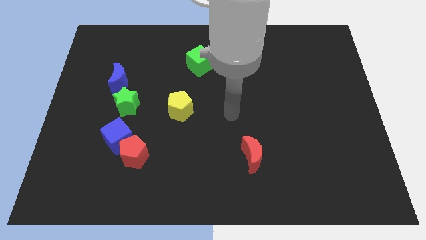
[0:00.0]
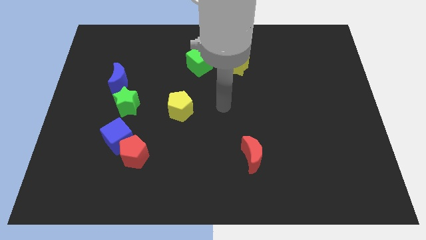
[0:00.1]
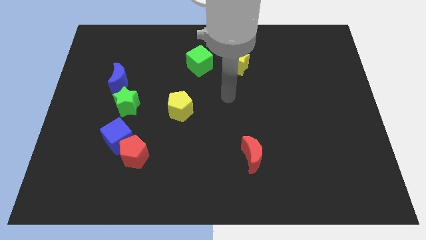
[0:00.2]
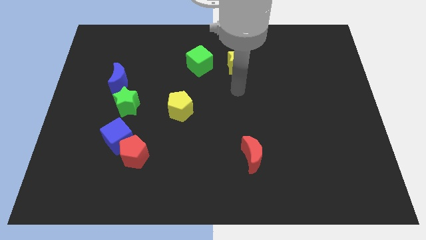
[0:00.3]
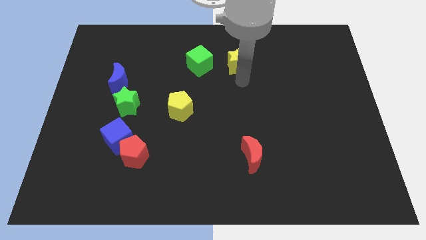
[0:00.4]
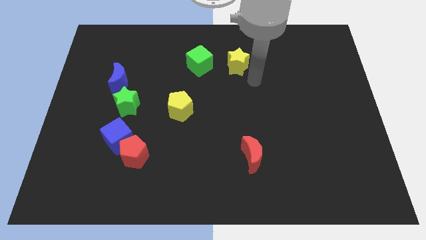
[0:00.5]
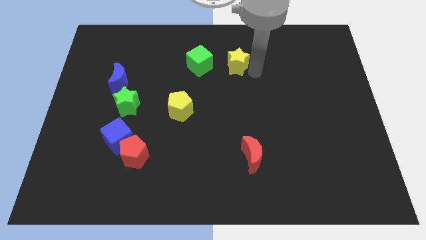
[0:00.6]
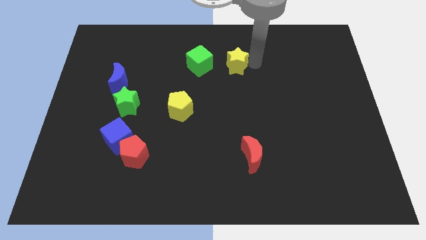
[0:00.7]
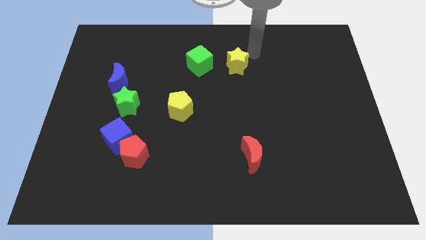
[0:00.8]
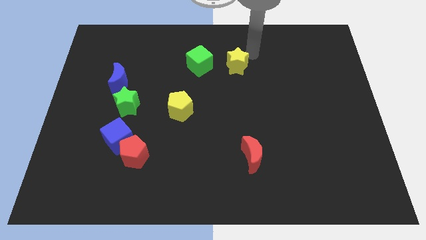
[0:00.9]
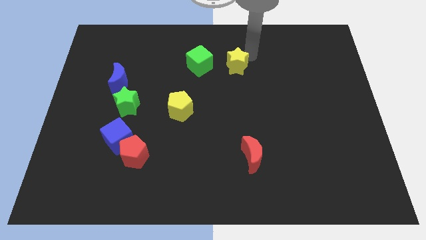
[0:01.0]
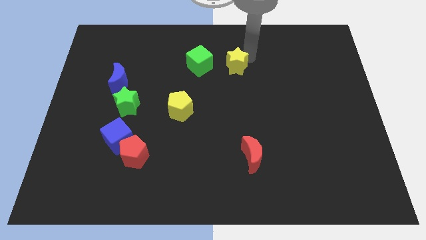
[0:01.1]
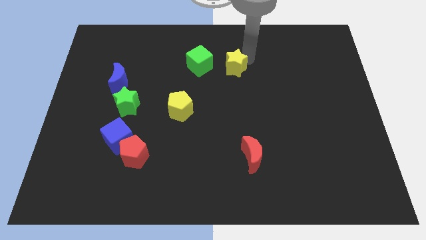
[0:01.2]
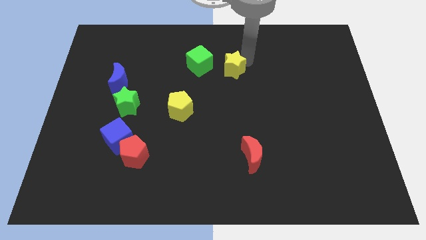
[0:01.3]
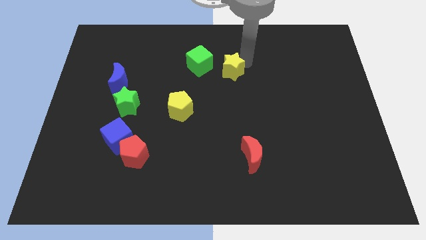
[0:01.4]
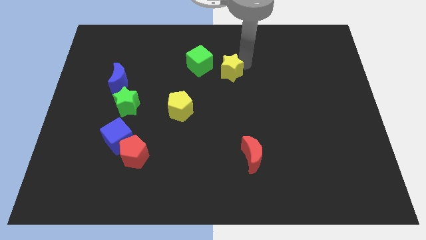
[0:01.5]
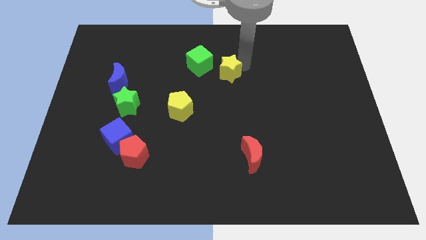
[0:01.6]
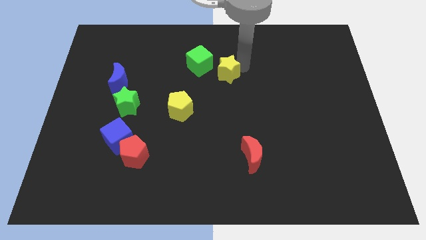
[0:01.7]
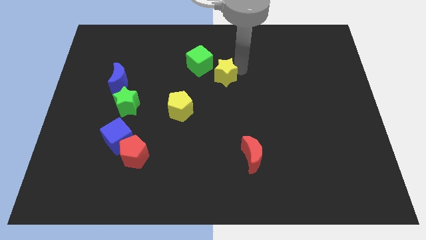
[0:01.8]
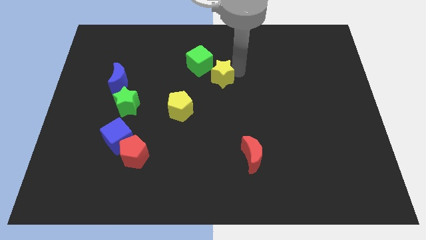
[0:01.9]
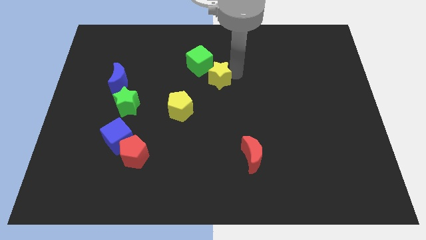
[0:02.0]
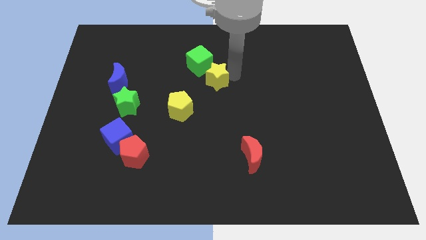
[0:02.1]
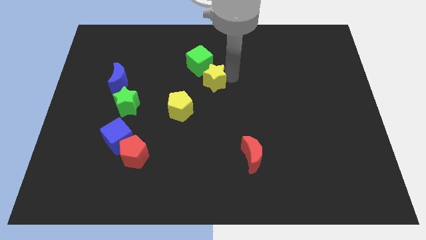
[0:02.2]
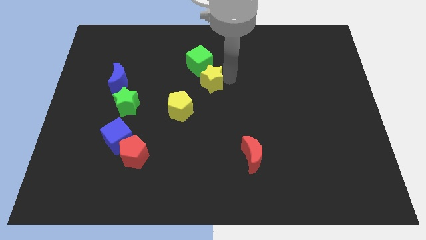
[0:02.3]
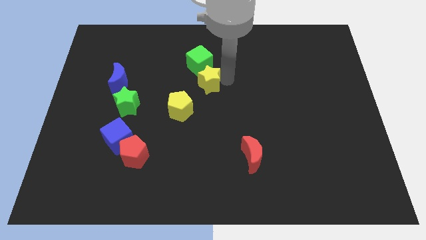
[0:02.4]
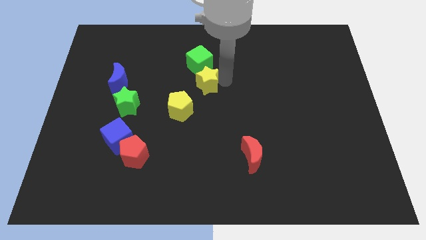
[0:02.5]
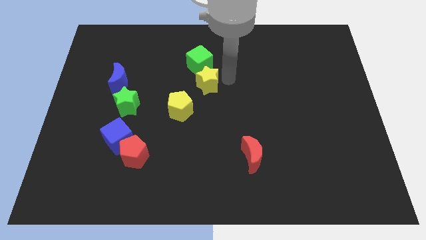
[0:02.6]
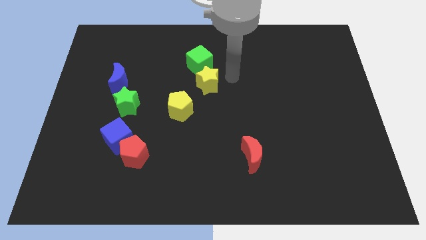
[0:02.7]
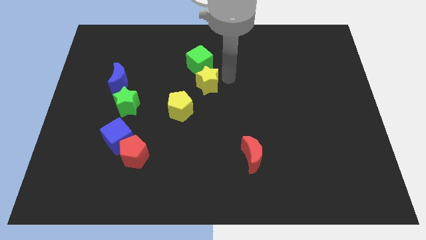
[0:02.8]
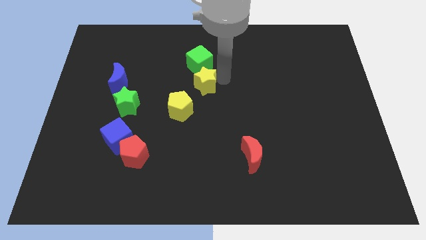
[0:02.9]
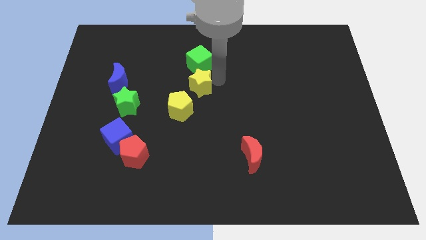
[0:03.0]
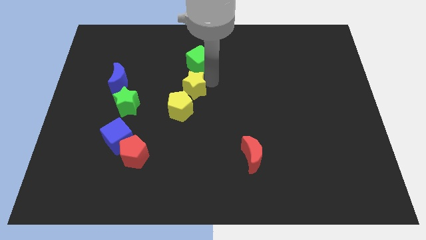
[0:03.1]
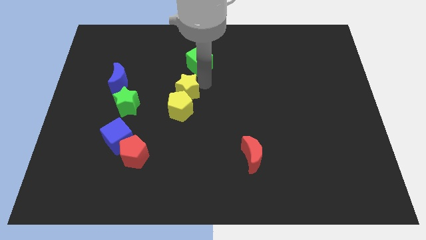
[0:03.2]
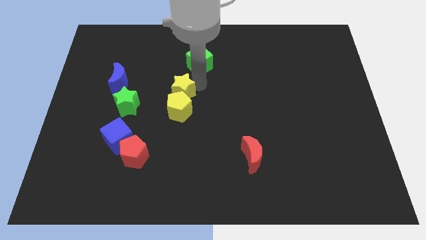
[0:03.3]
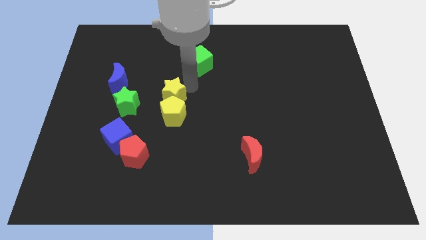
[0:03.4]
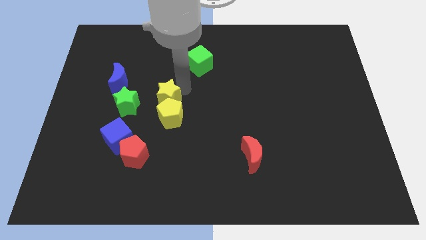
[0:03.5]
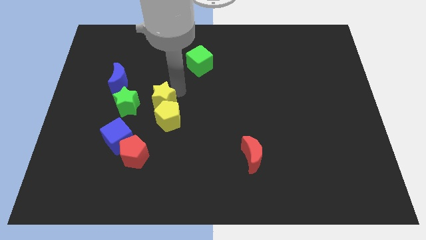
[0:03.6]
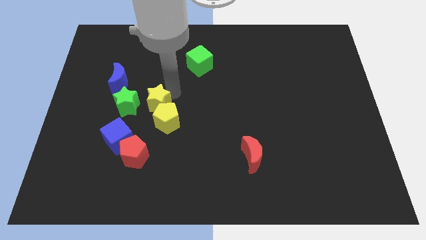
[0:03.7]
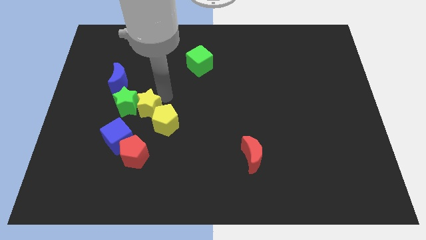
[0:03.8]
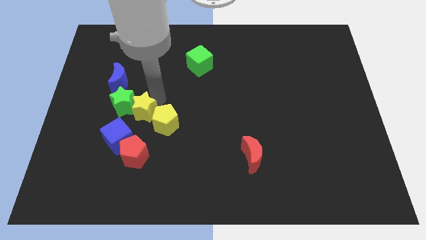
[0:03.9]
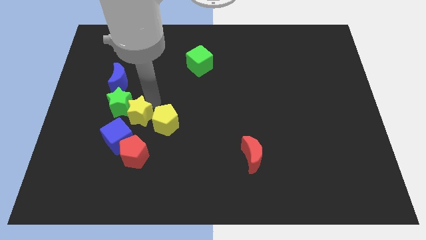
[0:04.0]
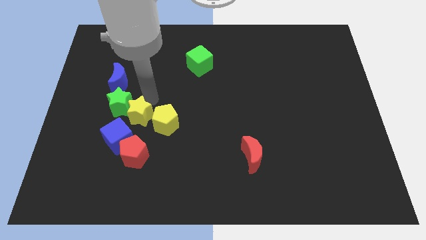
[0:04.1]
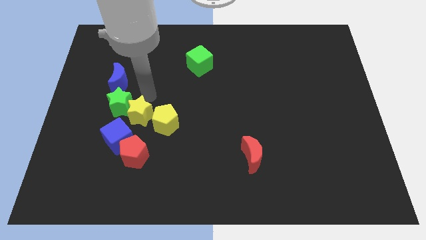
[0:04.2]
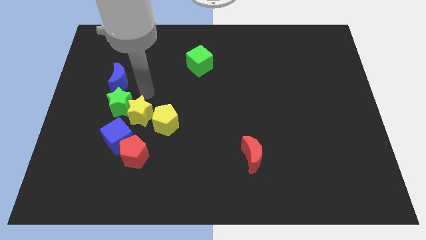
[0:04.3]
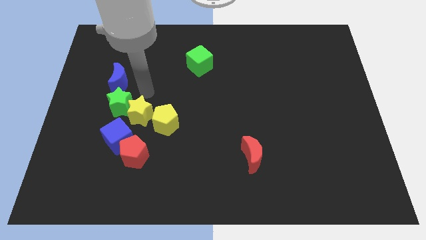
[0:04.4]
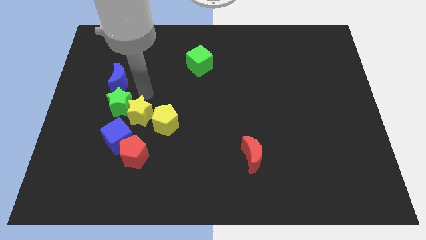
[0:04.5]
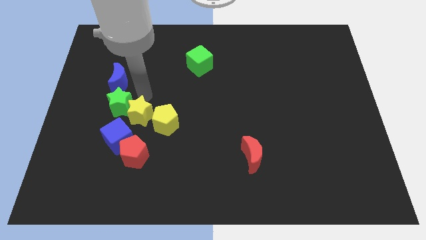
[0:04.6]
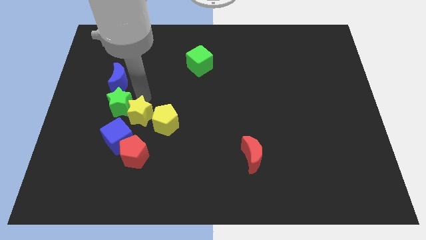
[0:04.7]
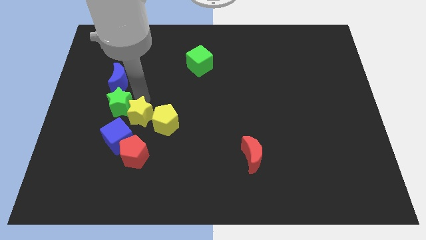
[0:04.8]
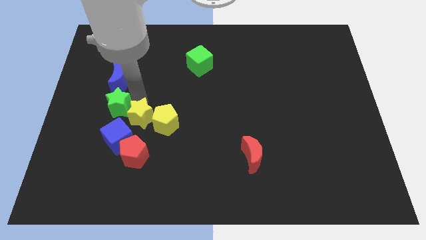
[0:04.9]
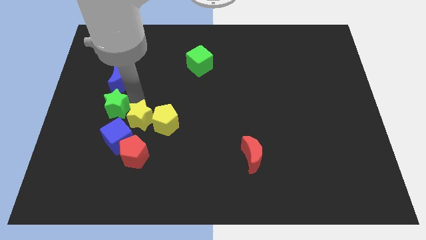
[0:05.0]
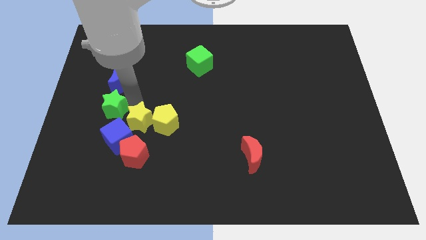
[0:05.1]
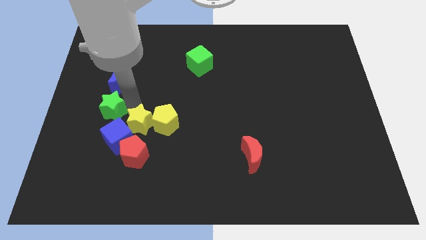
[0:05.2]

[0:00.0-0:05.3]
push the yellow star next to the blue cube

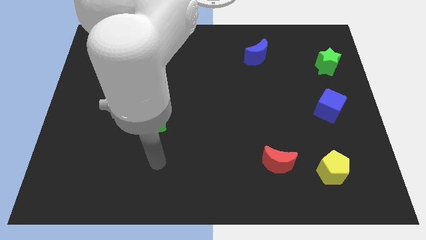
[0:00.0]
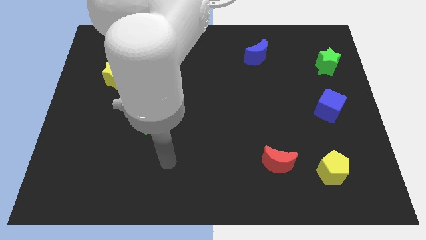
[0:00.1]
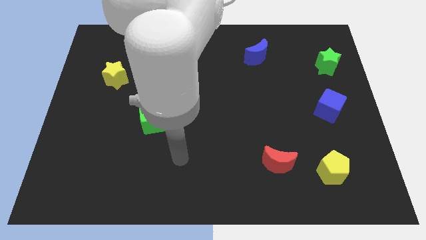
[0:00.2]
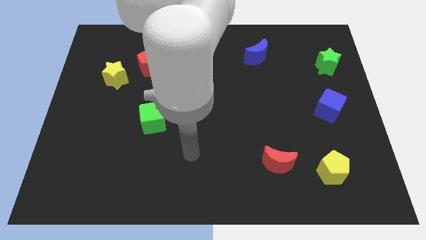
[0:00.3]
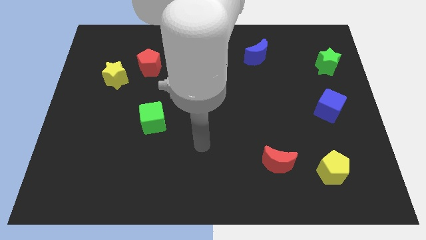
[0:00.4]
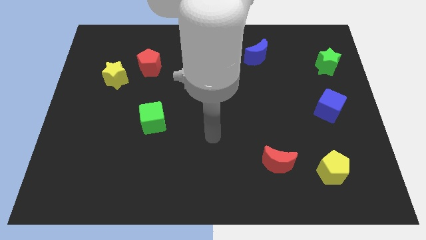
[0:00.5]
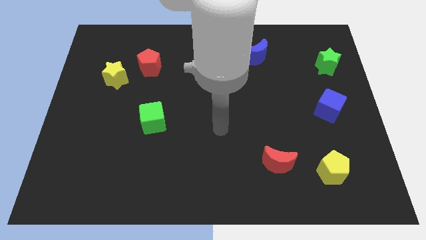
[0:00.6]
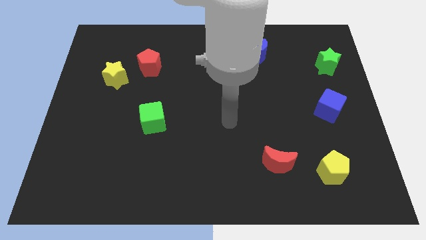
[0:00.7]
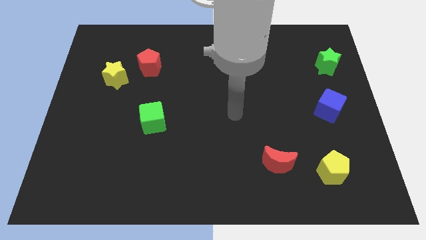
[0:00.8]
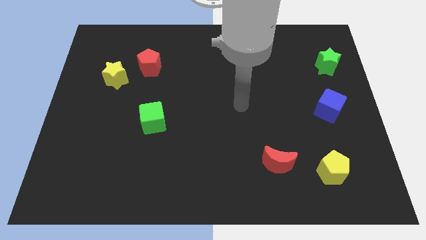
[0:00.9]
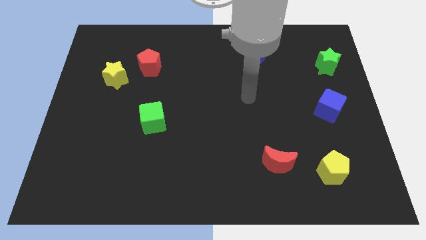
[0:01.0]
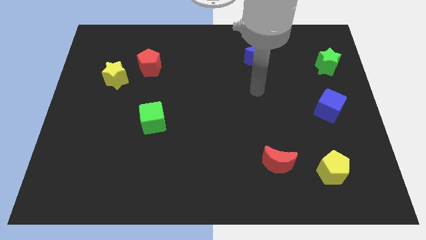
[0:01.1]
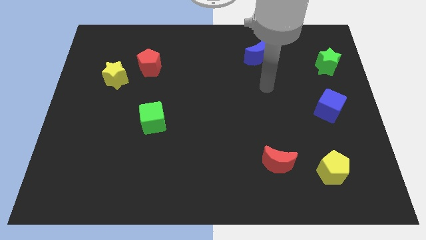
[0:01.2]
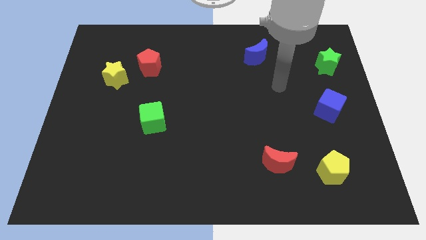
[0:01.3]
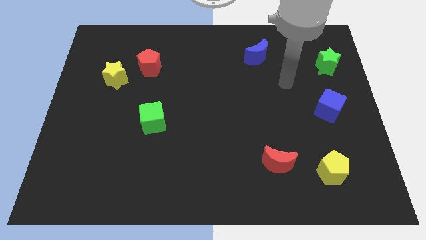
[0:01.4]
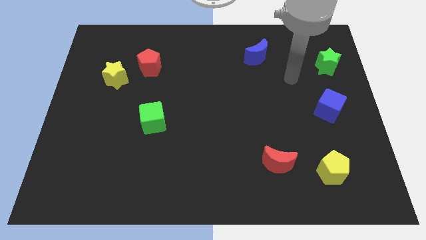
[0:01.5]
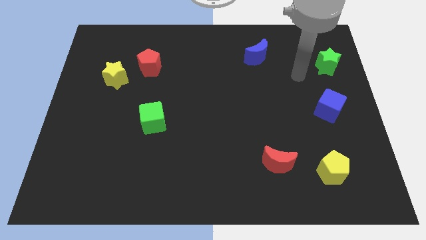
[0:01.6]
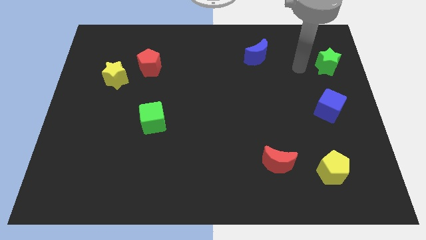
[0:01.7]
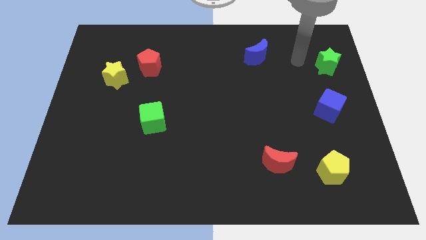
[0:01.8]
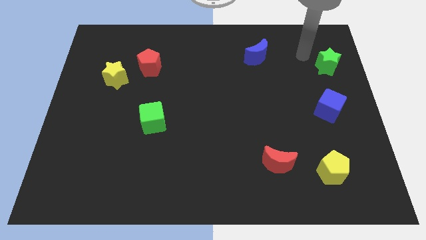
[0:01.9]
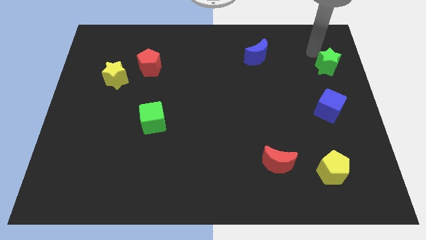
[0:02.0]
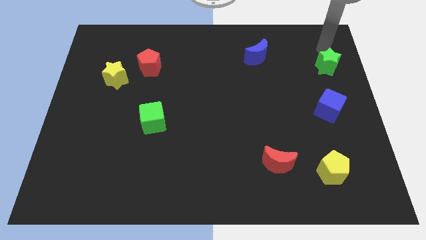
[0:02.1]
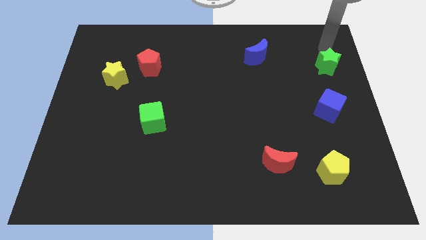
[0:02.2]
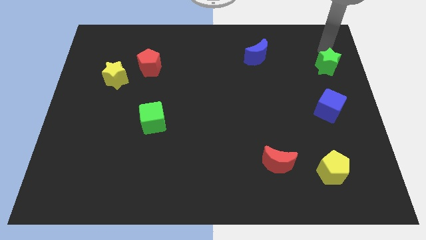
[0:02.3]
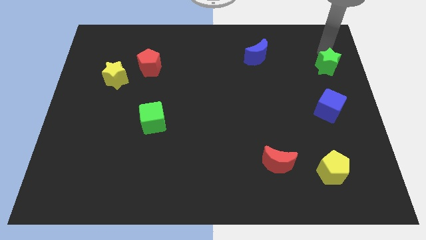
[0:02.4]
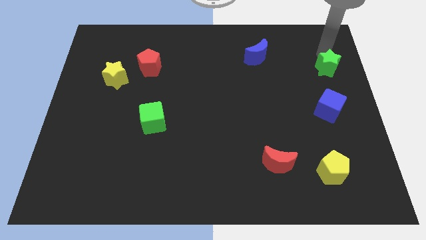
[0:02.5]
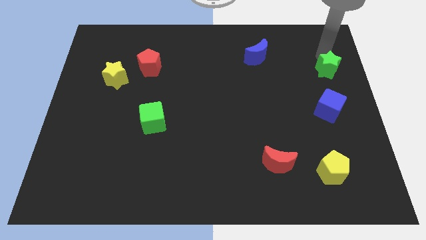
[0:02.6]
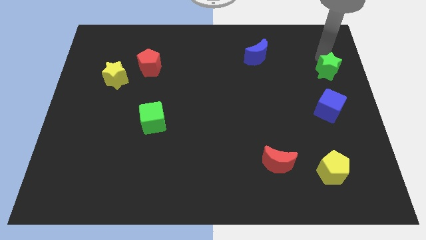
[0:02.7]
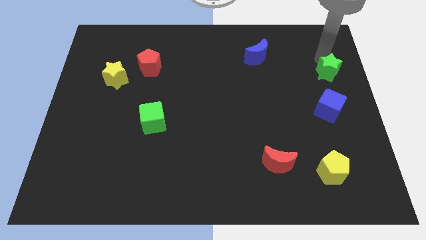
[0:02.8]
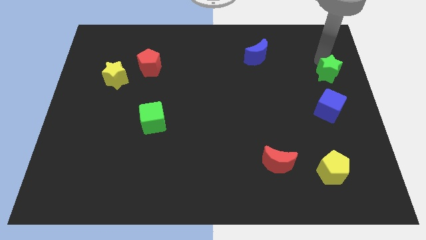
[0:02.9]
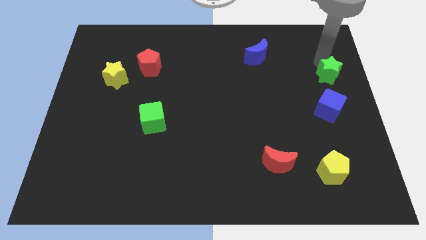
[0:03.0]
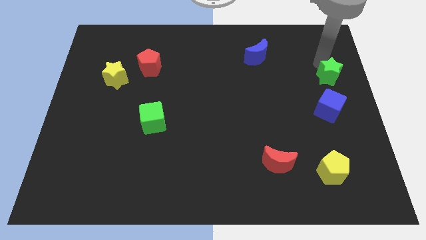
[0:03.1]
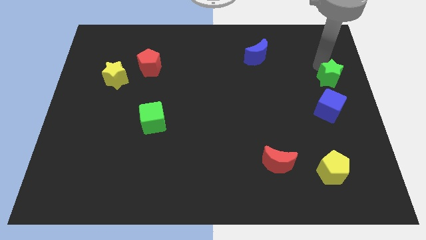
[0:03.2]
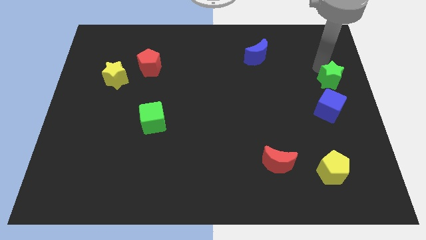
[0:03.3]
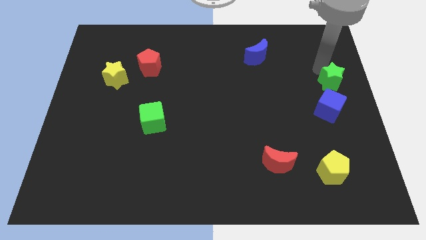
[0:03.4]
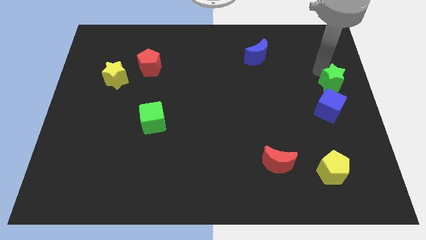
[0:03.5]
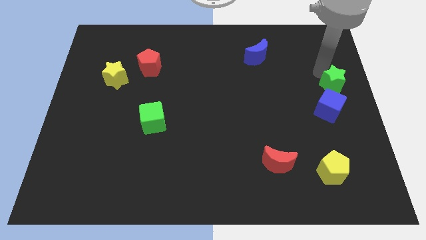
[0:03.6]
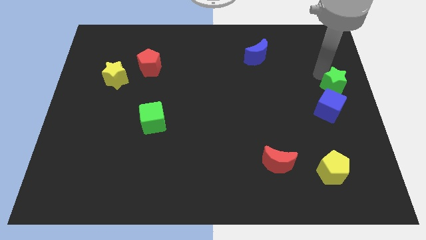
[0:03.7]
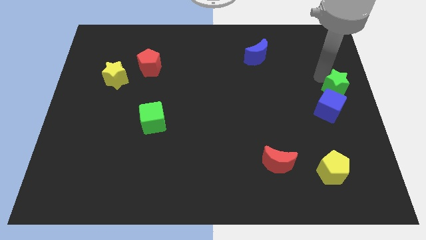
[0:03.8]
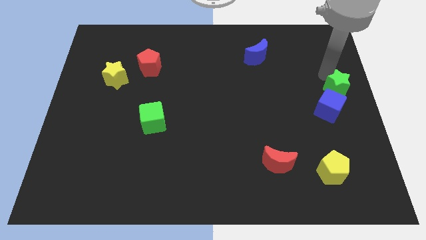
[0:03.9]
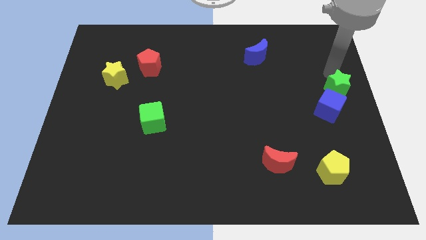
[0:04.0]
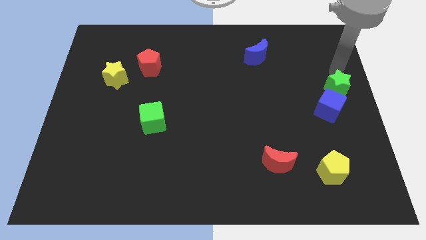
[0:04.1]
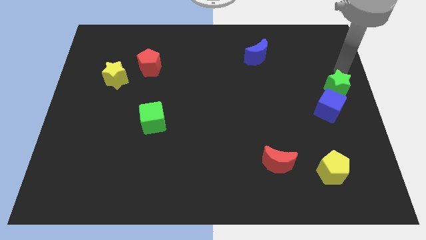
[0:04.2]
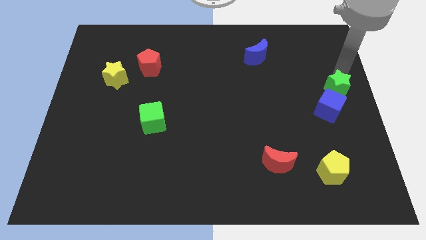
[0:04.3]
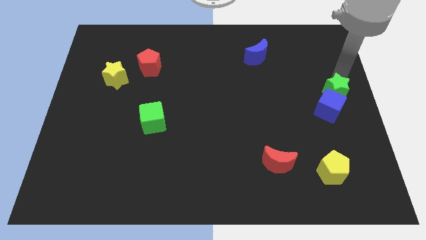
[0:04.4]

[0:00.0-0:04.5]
push the green star towards the blue cube
